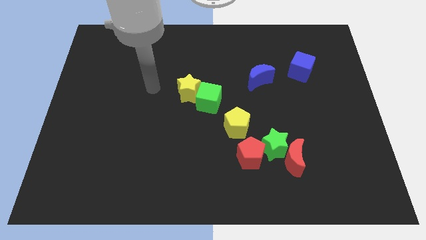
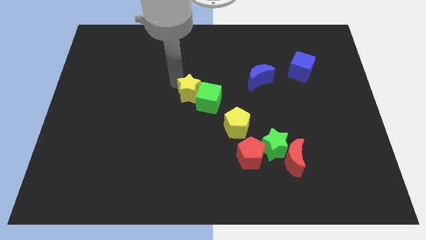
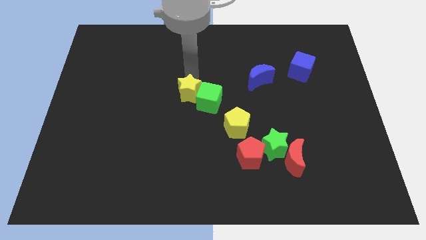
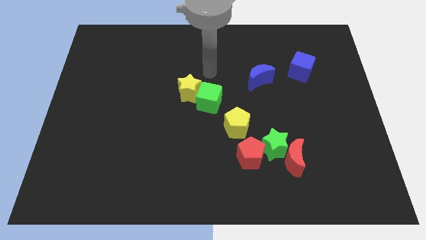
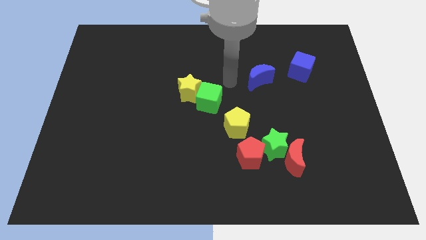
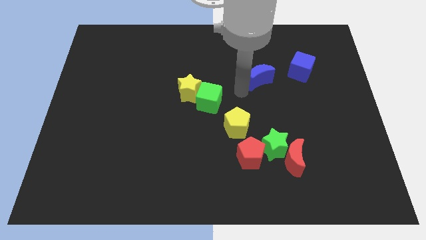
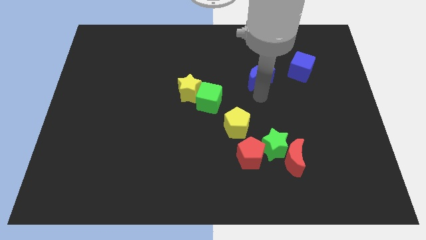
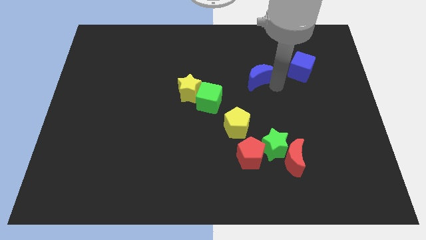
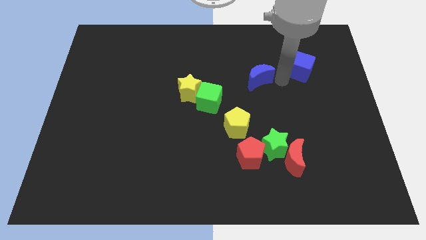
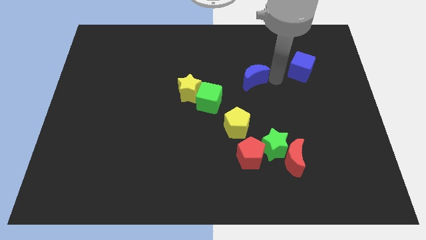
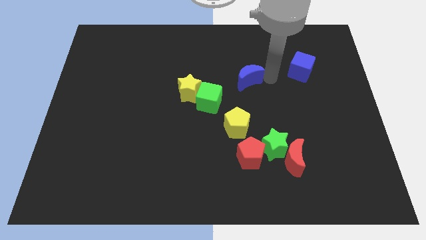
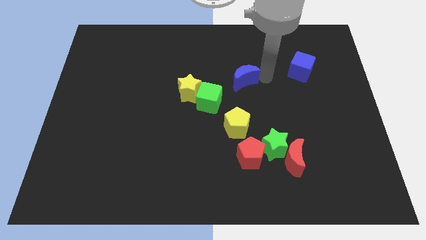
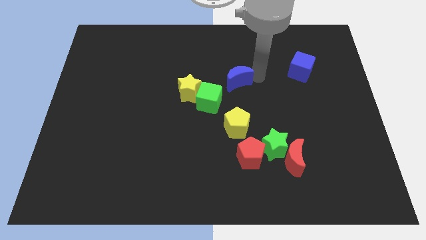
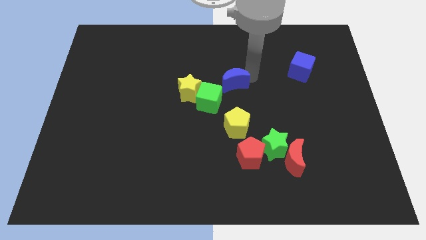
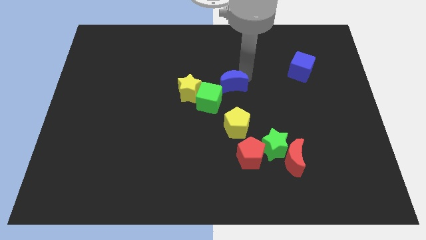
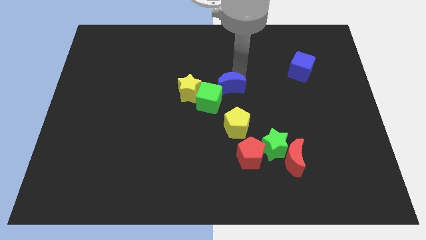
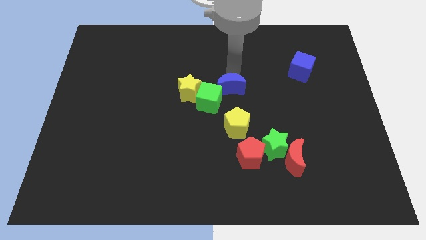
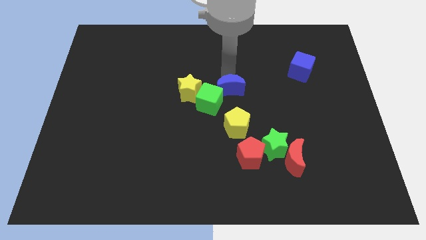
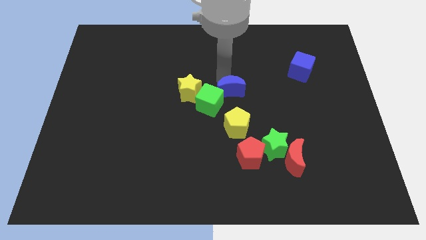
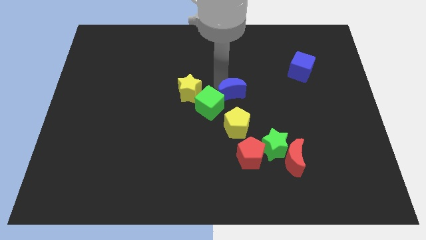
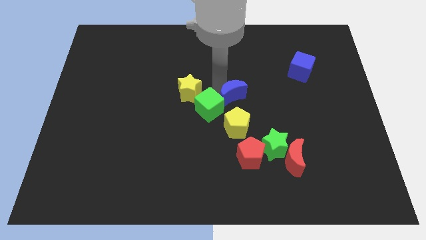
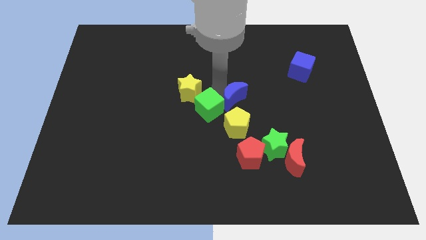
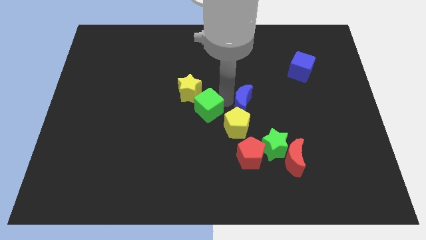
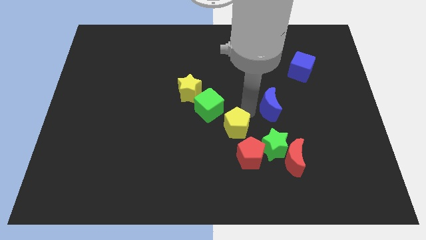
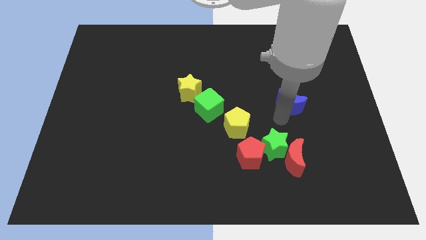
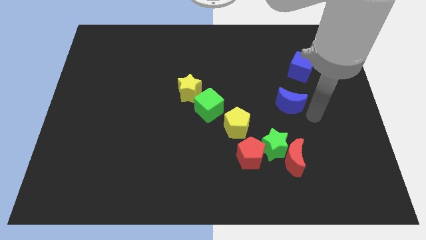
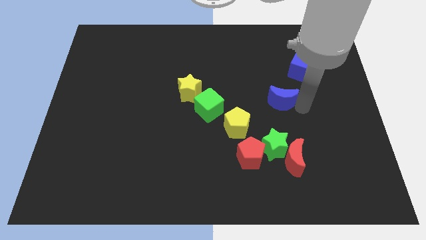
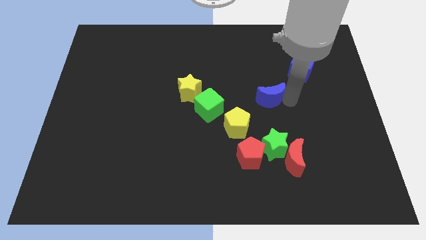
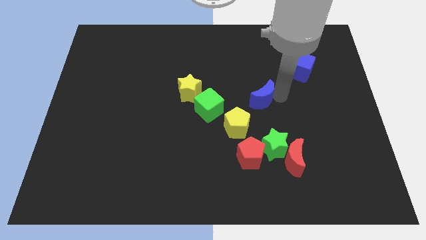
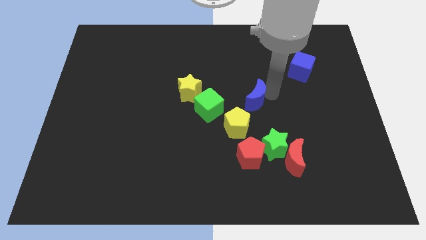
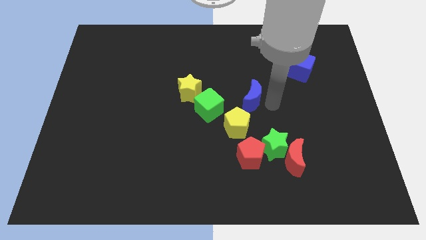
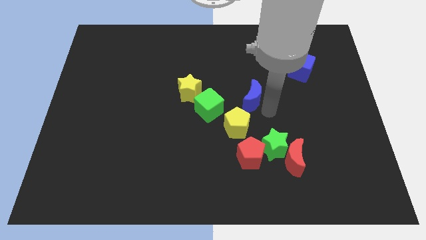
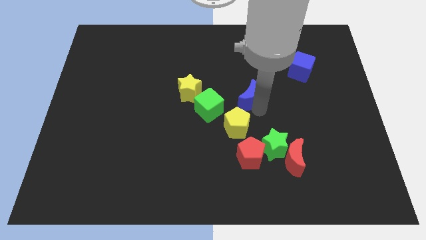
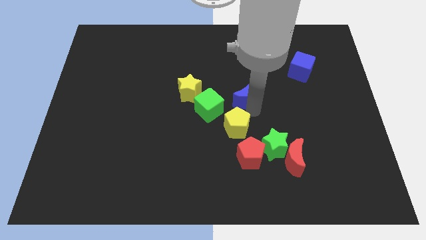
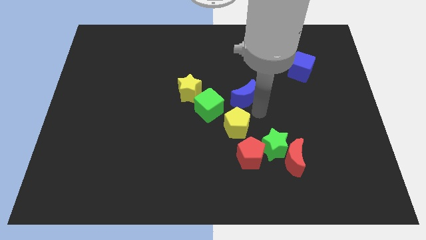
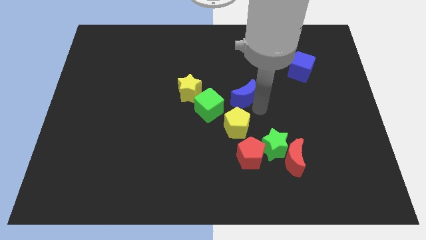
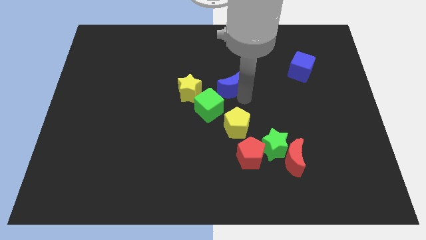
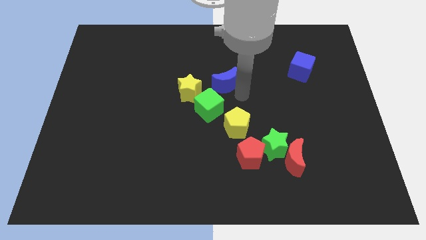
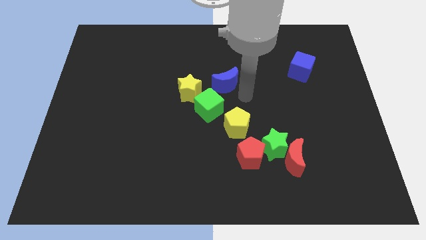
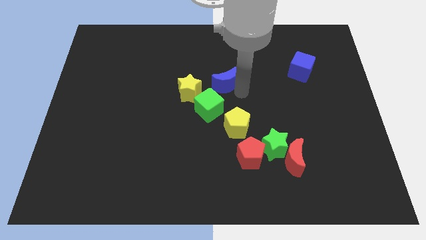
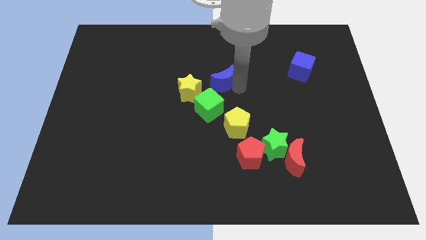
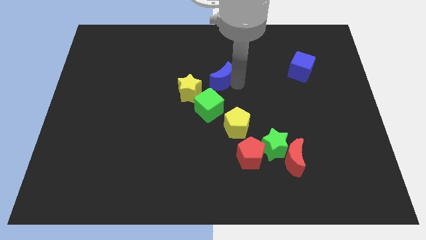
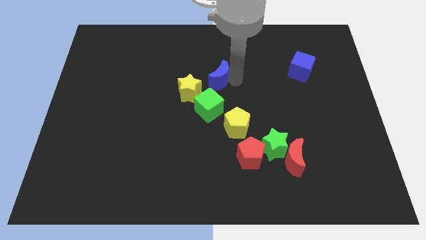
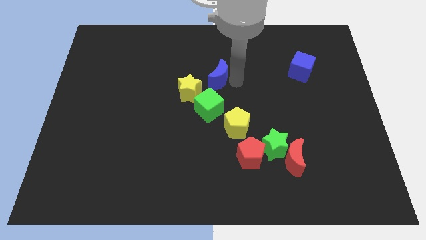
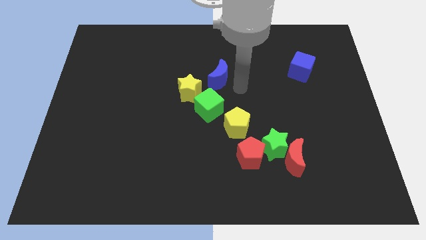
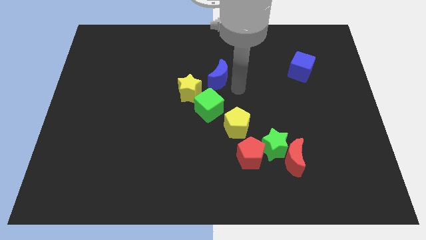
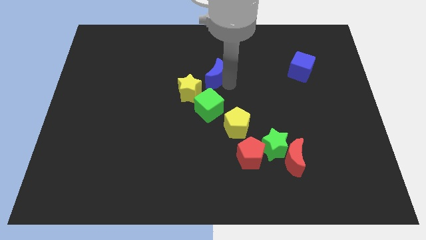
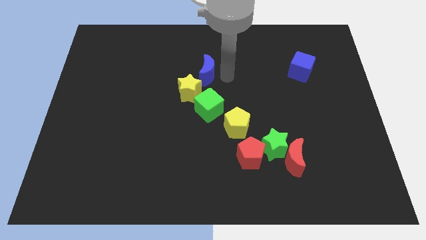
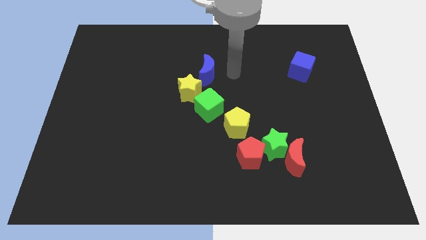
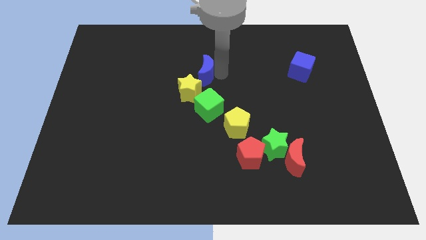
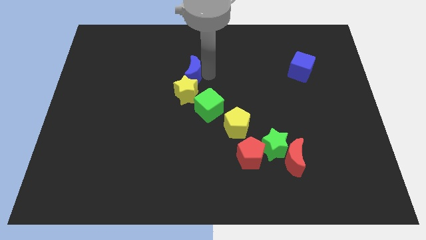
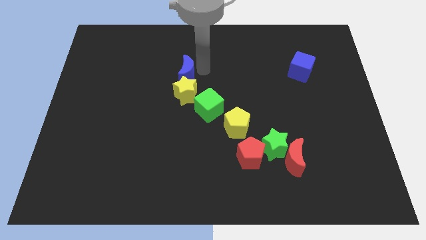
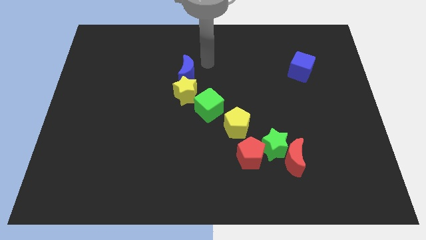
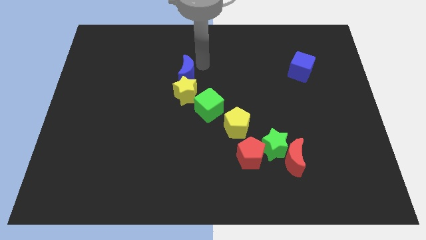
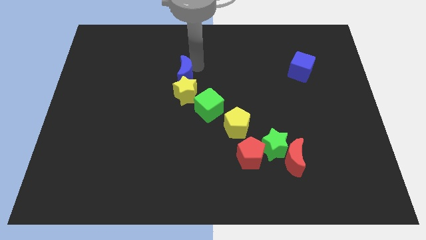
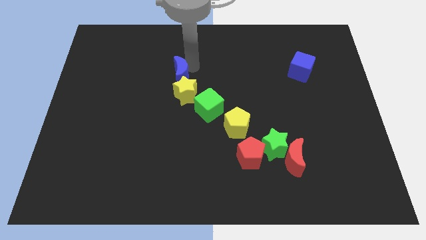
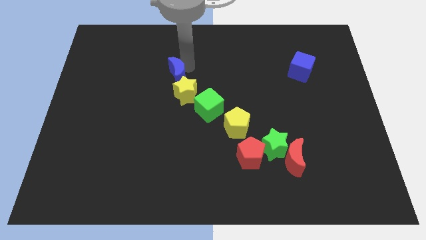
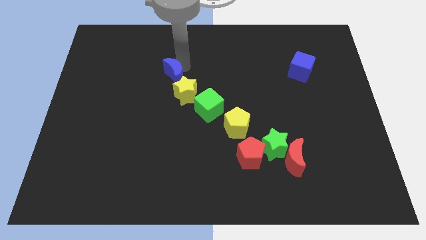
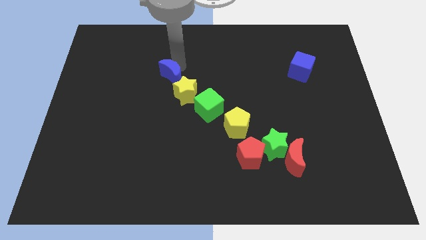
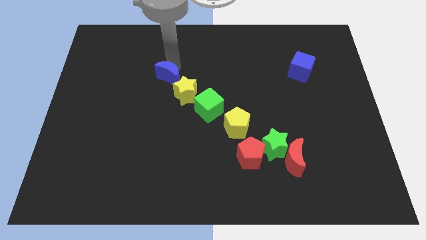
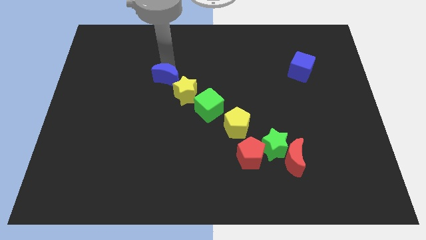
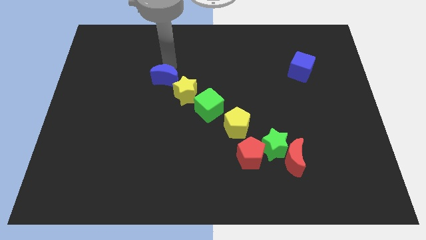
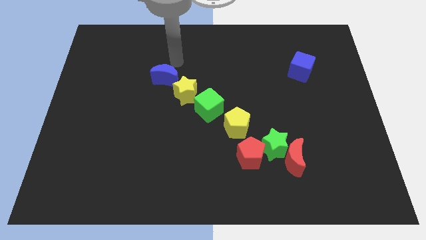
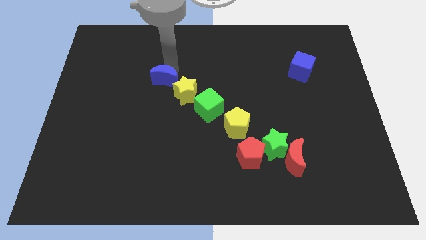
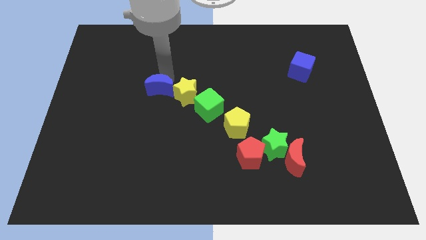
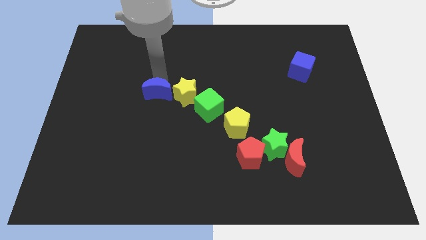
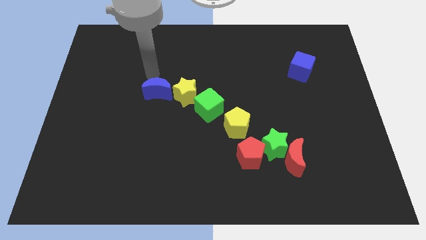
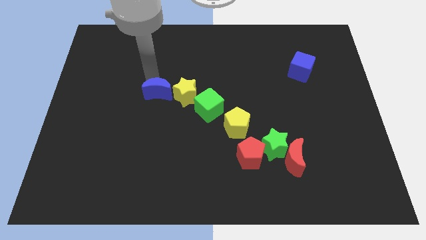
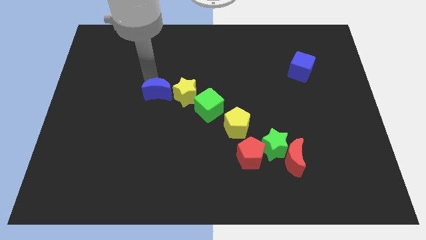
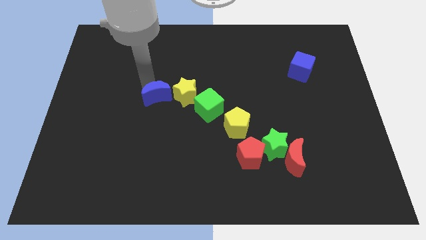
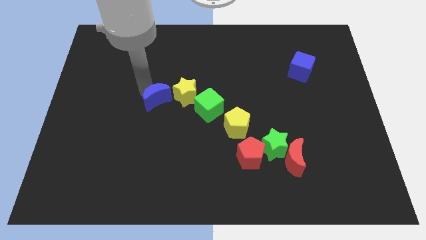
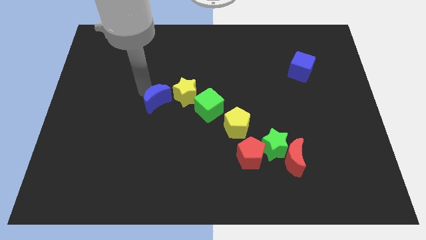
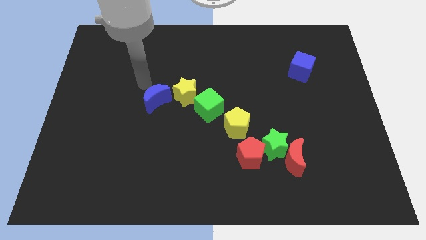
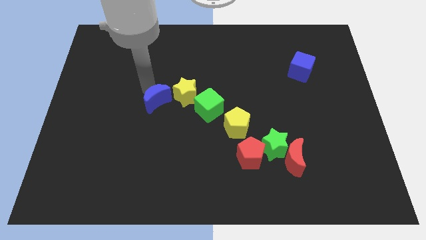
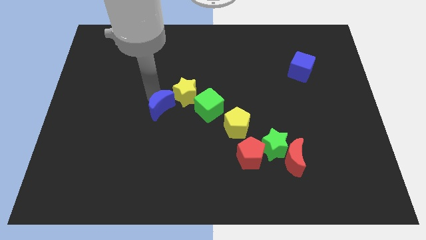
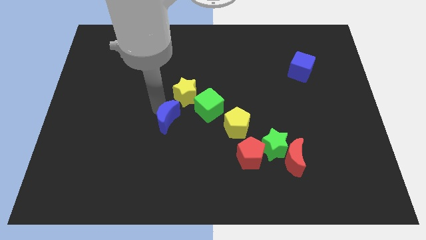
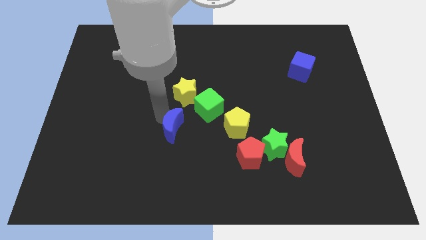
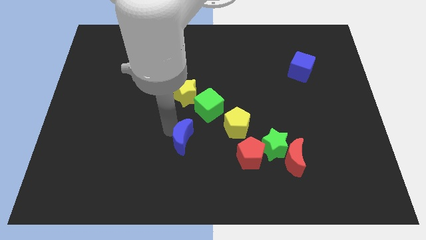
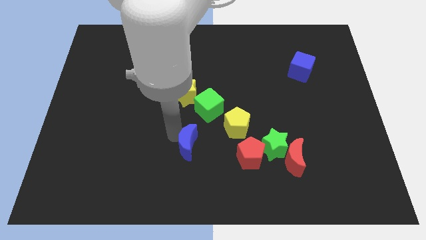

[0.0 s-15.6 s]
slide the blue moon to the bottom of the green cube
